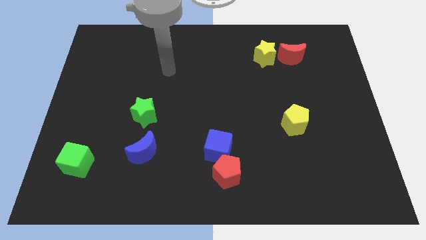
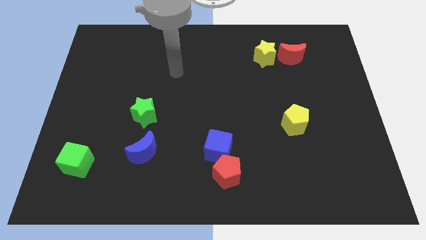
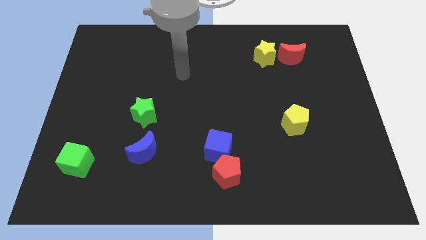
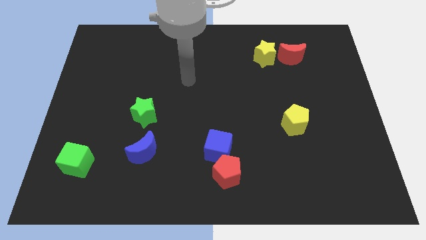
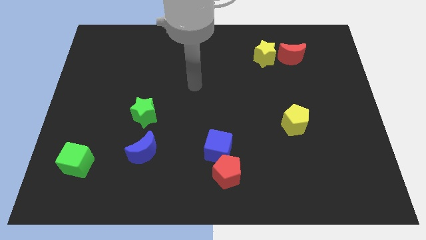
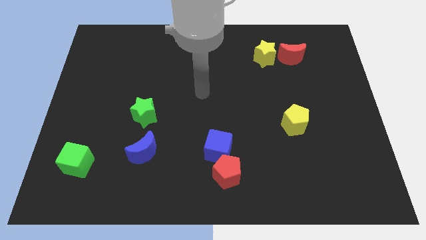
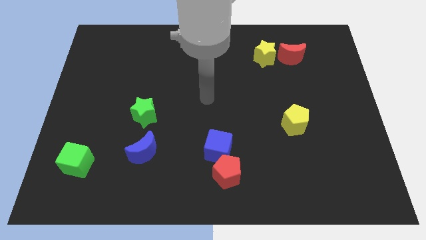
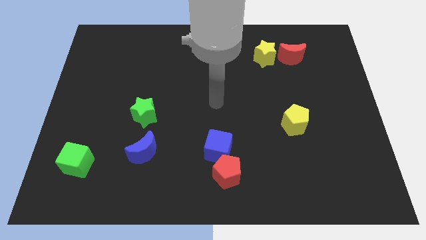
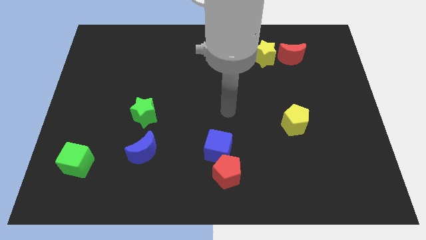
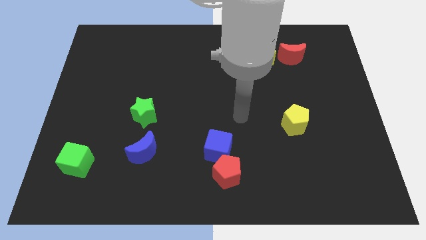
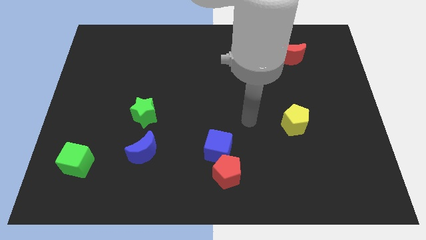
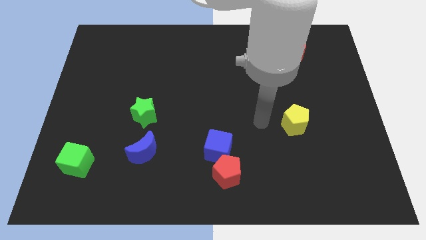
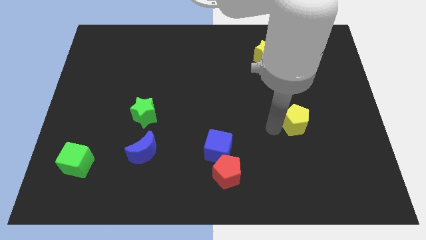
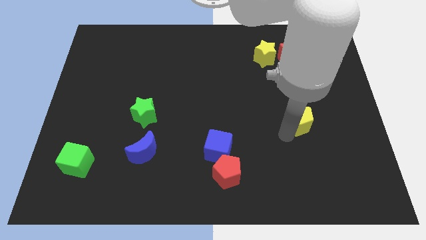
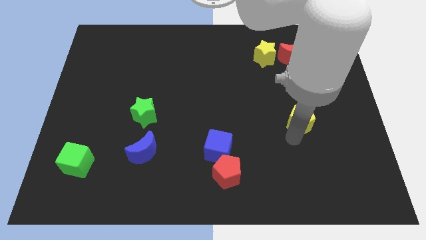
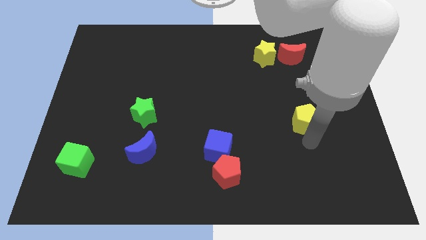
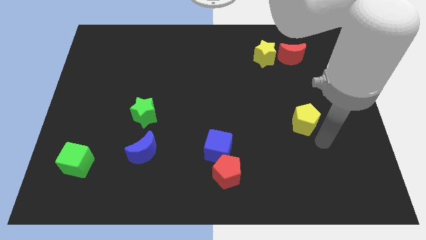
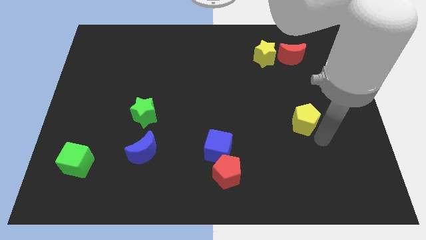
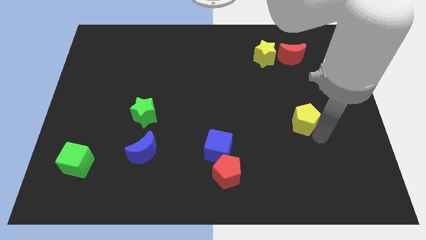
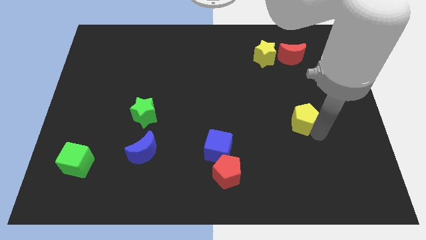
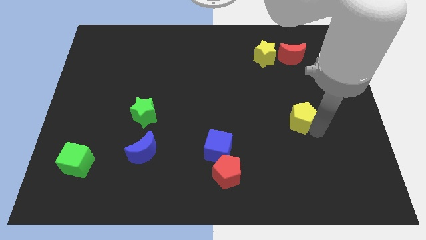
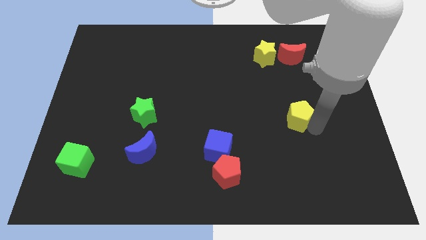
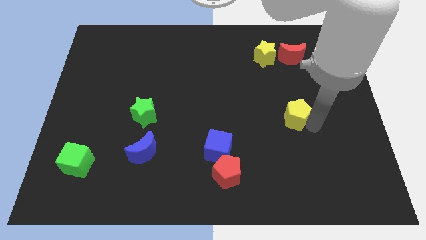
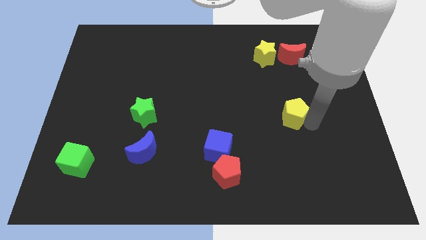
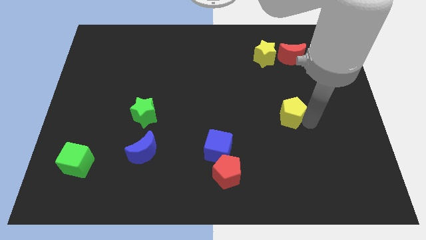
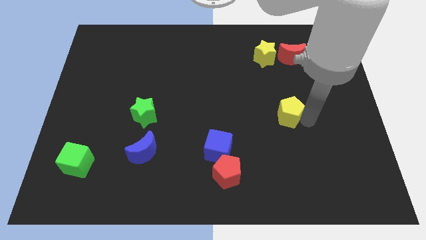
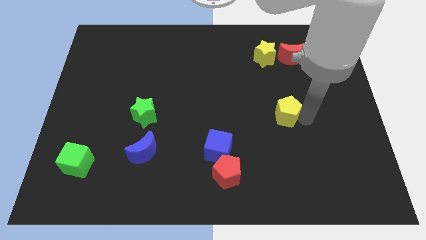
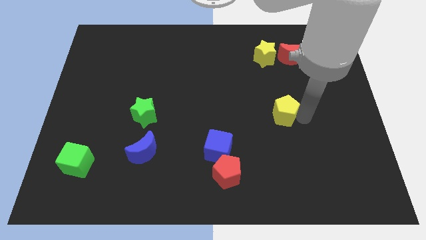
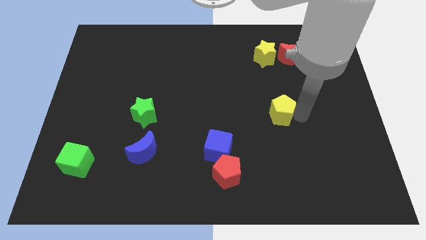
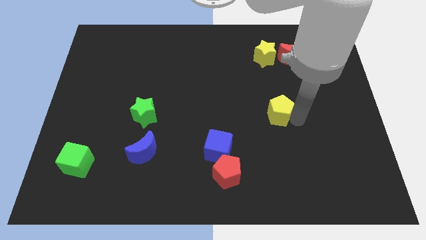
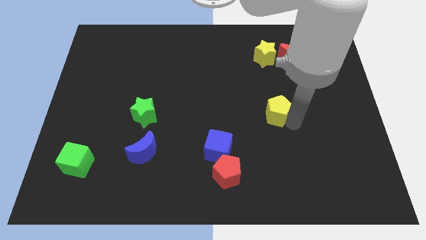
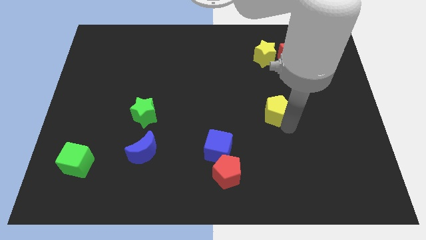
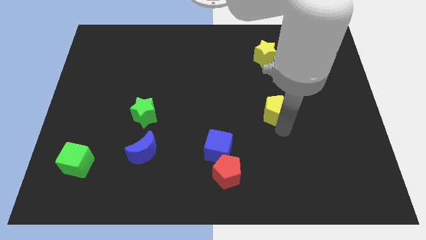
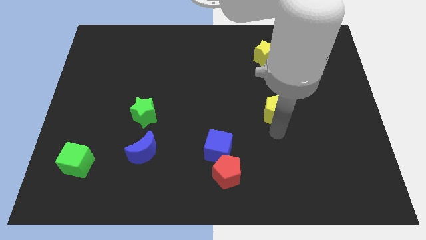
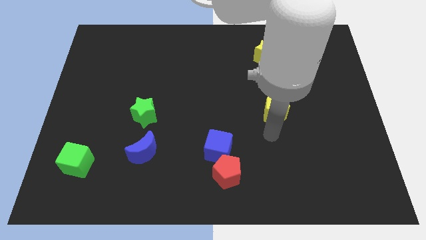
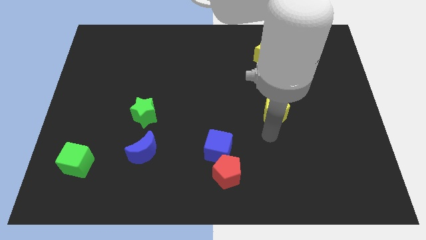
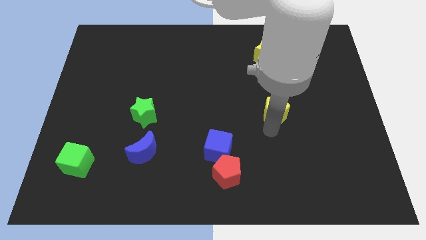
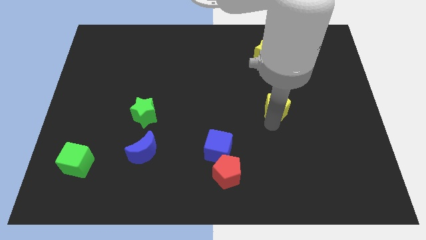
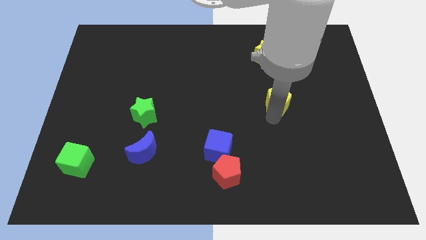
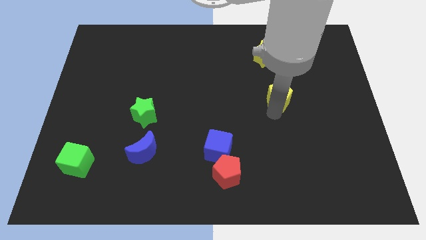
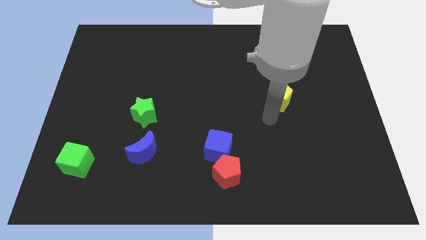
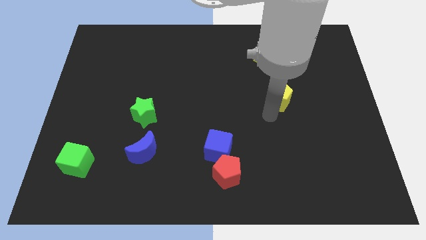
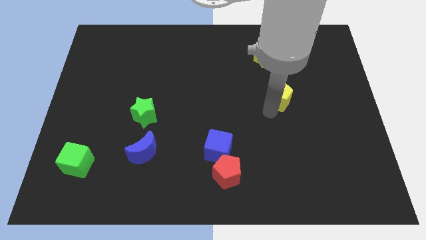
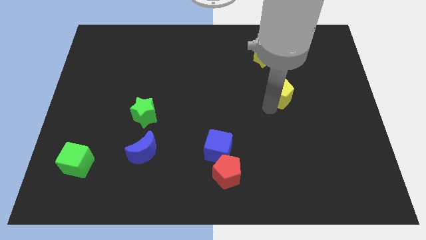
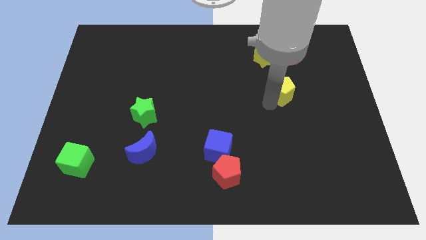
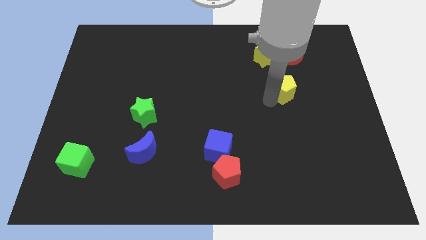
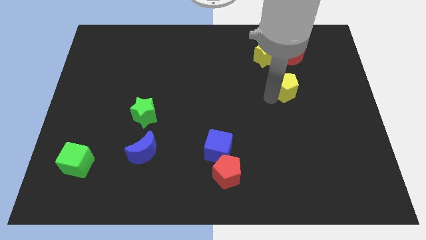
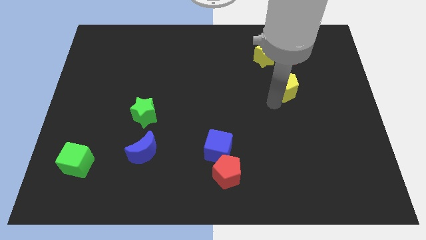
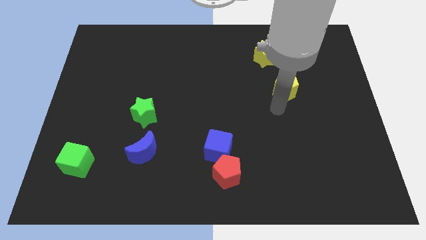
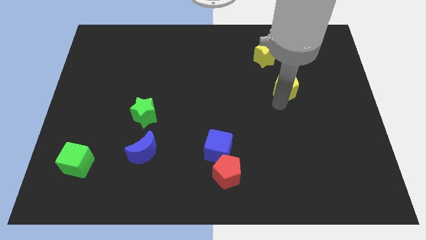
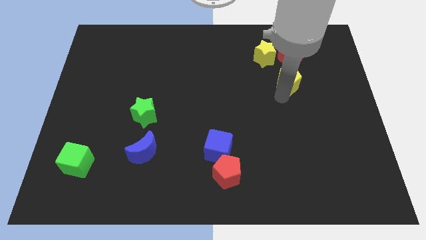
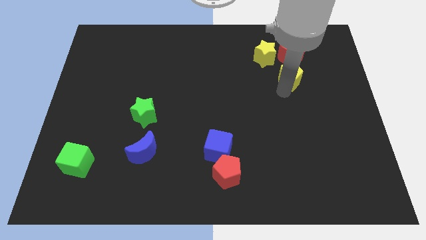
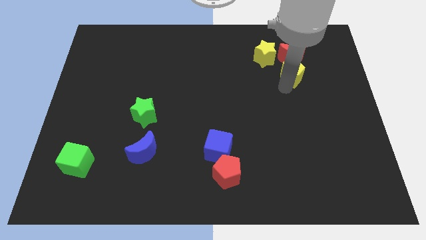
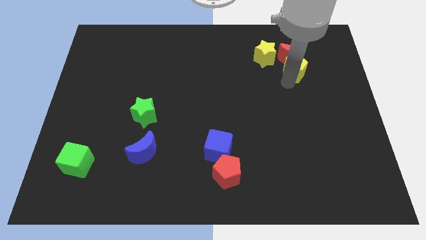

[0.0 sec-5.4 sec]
push the yellow pentagon close to the red moon

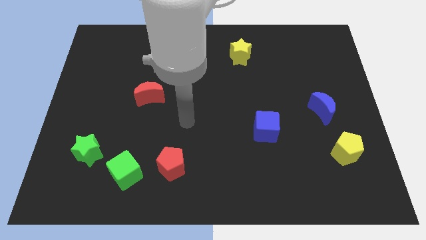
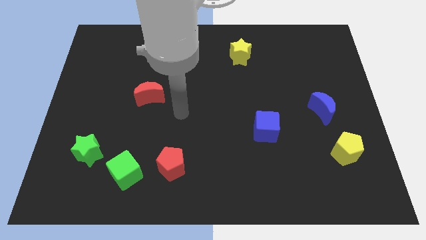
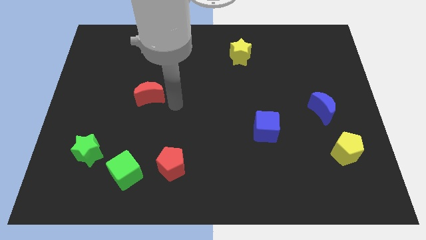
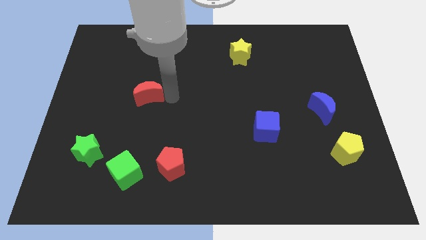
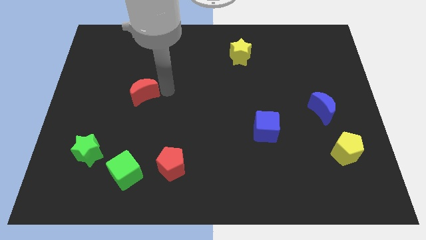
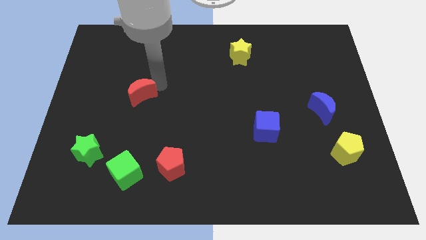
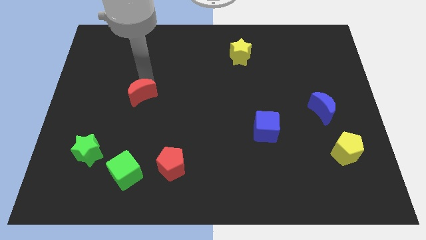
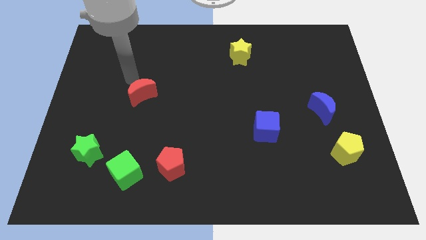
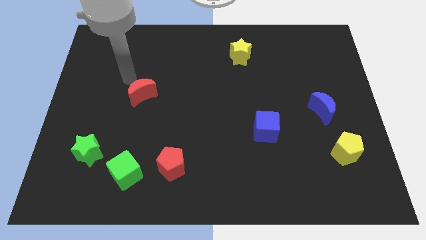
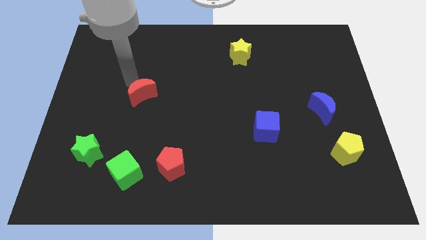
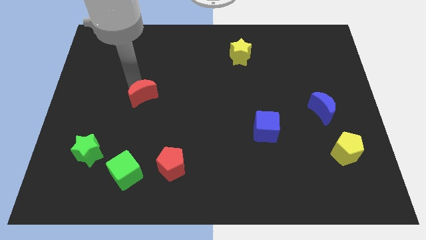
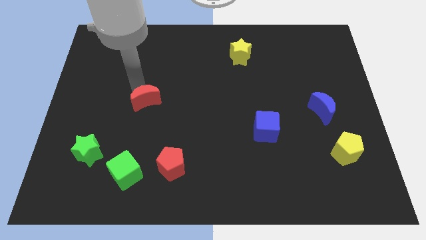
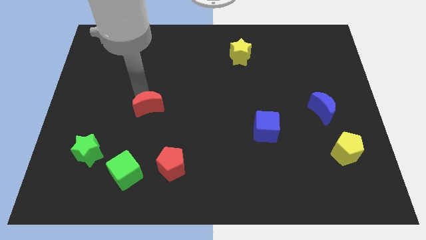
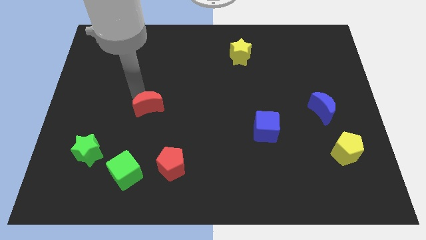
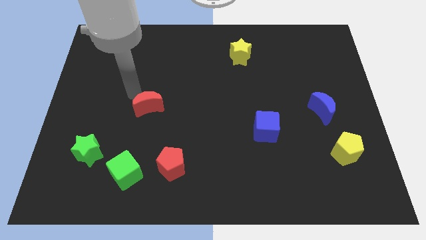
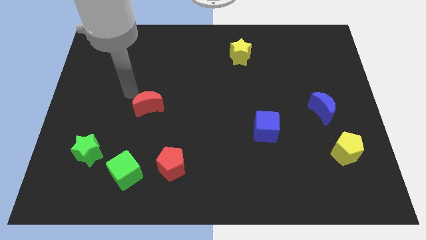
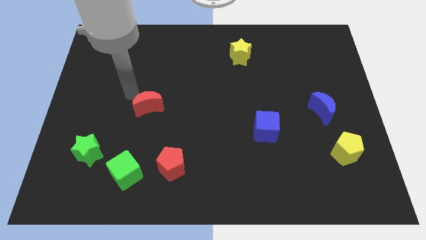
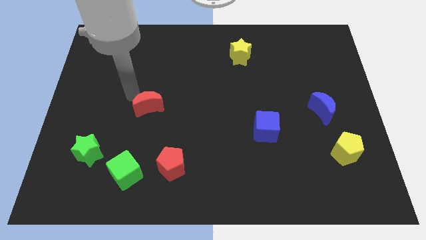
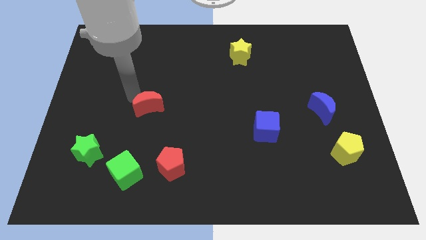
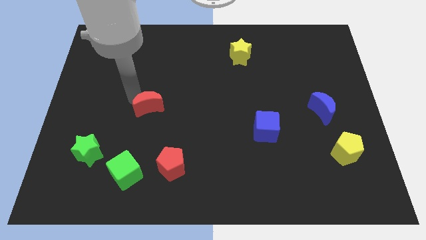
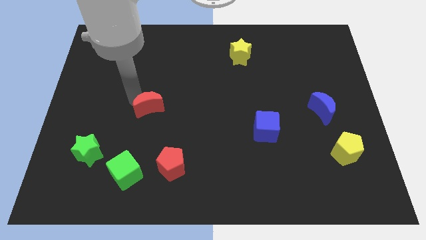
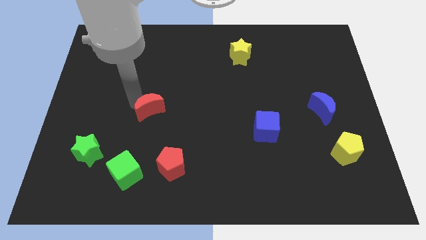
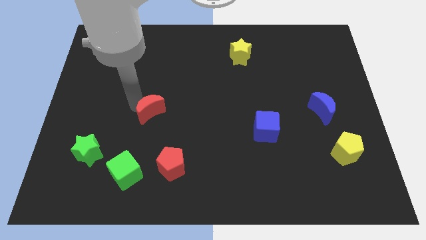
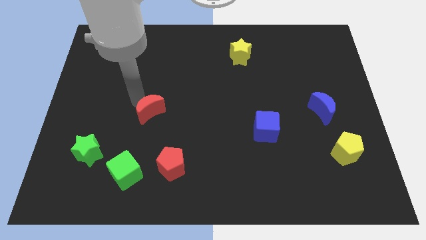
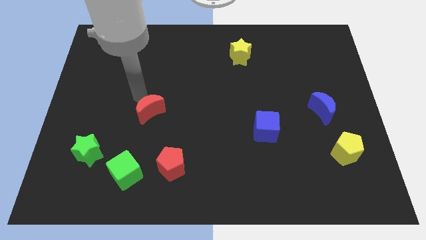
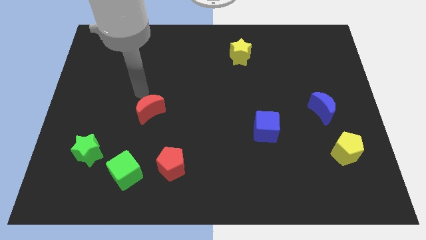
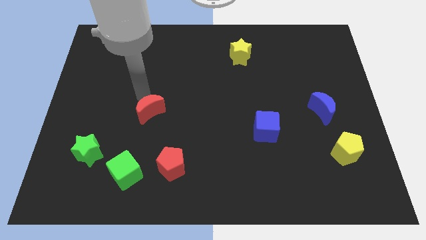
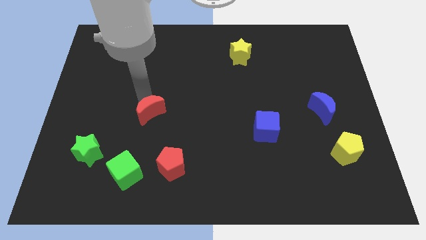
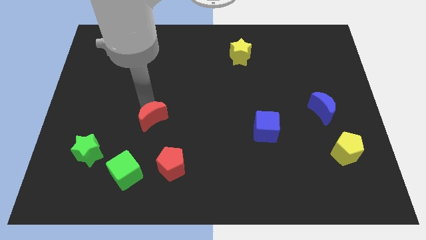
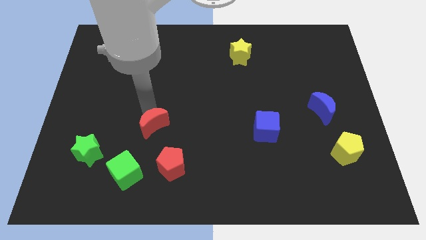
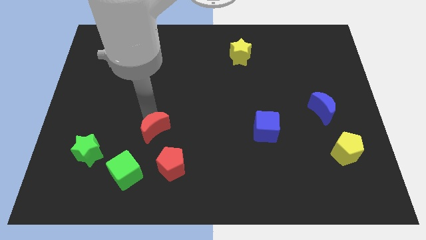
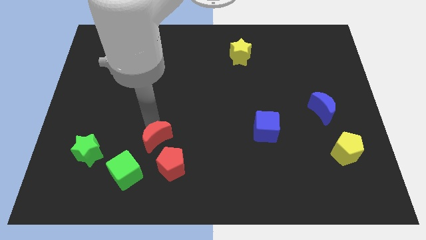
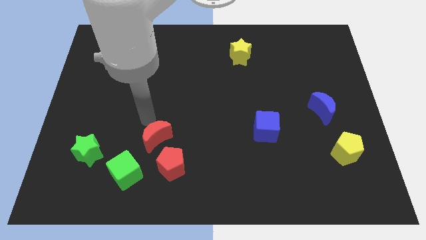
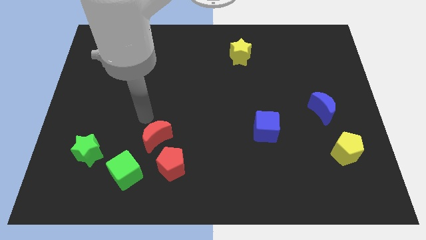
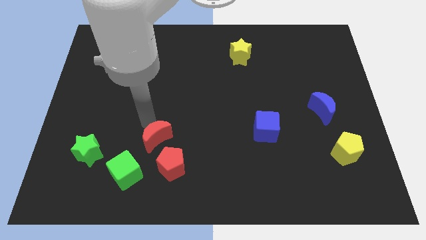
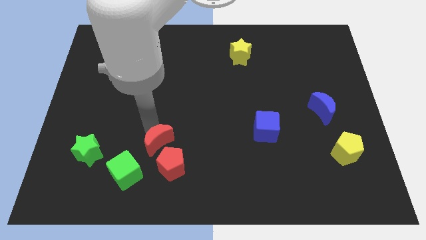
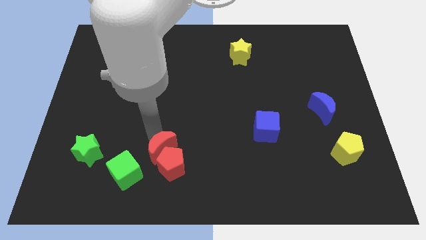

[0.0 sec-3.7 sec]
put the red moon close to the red pentagon
